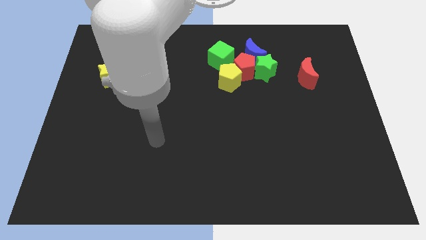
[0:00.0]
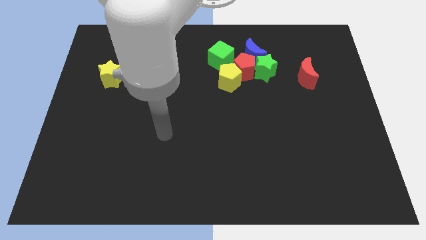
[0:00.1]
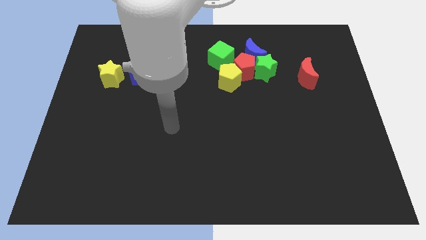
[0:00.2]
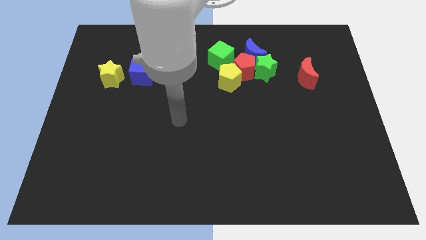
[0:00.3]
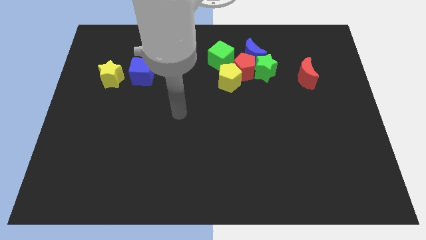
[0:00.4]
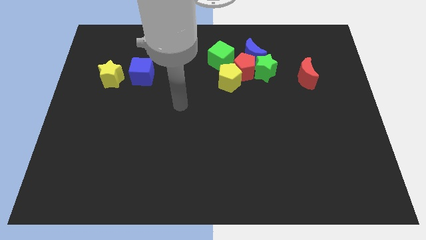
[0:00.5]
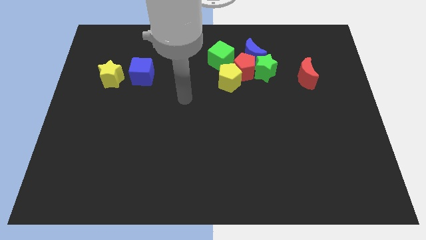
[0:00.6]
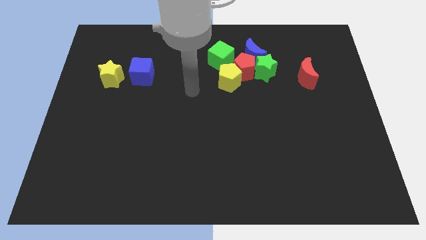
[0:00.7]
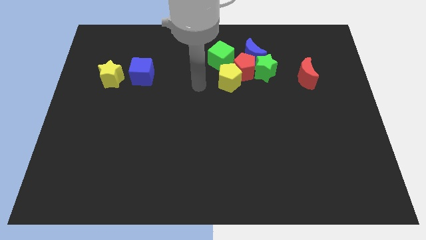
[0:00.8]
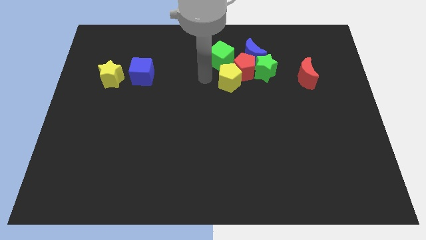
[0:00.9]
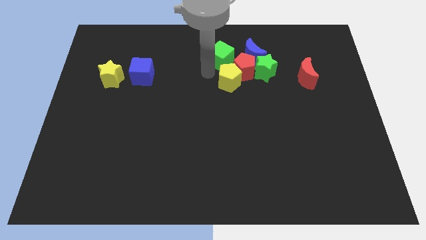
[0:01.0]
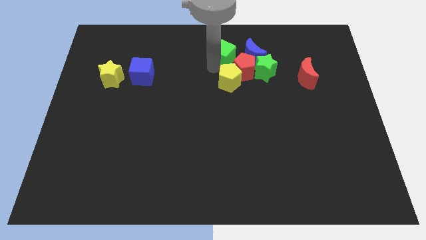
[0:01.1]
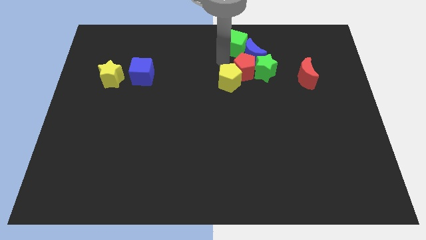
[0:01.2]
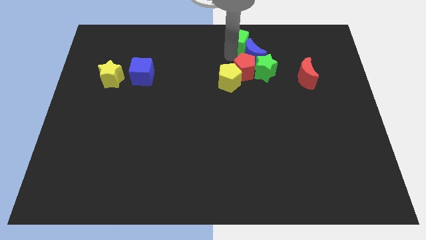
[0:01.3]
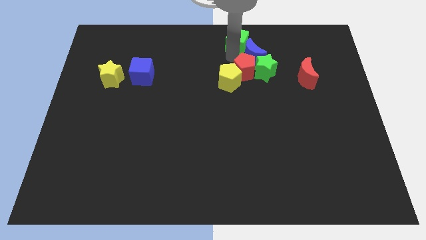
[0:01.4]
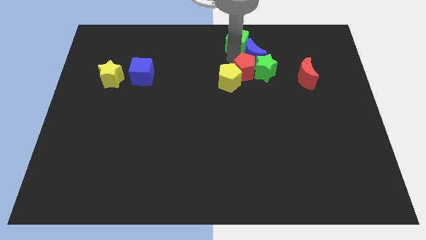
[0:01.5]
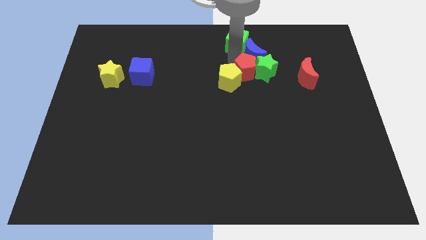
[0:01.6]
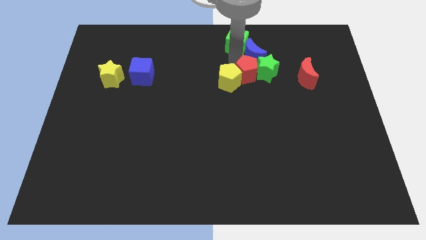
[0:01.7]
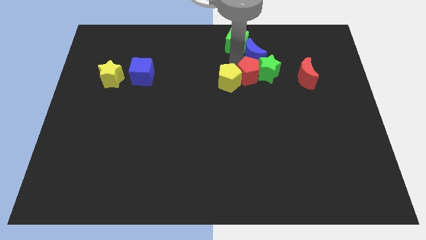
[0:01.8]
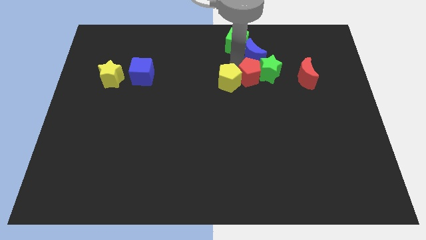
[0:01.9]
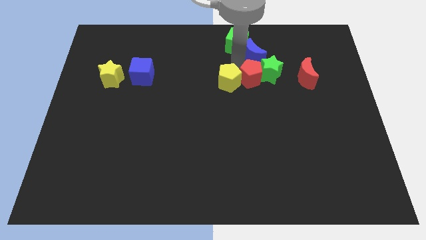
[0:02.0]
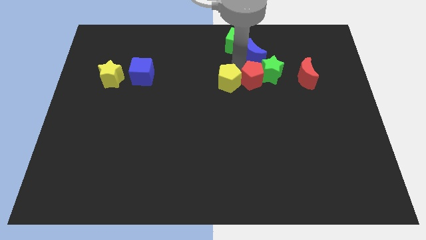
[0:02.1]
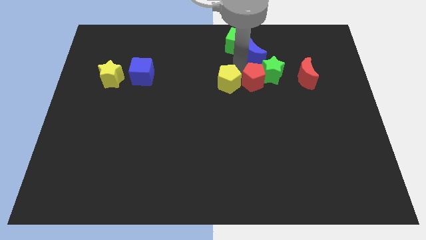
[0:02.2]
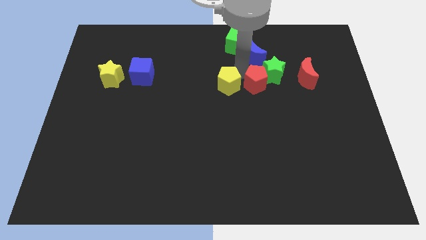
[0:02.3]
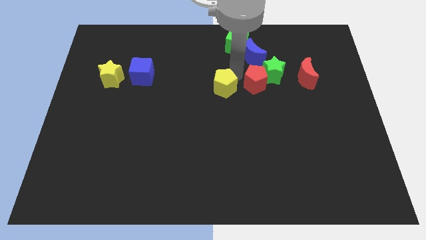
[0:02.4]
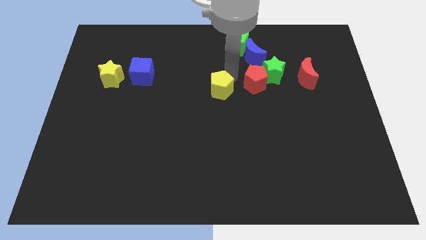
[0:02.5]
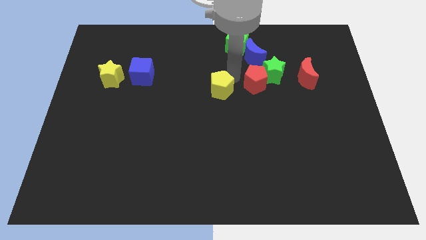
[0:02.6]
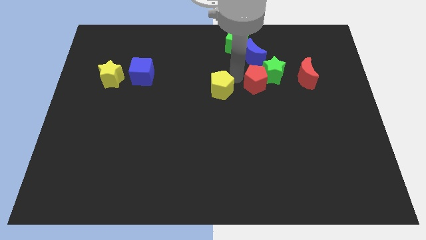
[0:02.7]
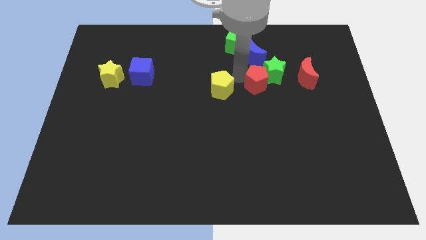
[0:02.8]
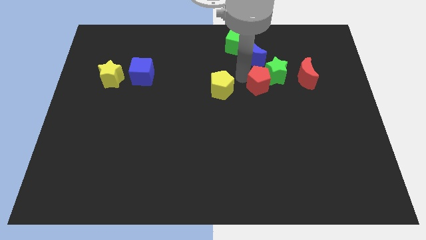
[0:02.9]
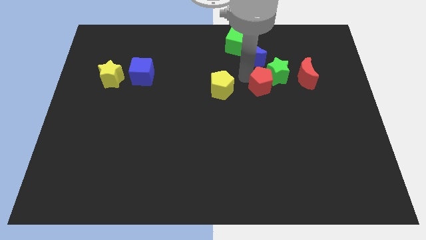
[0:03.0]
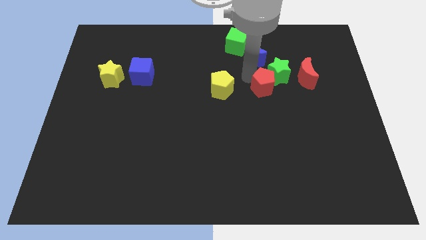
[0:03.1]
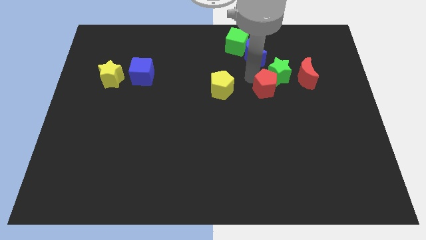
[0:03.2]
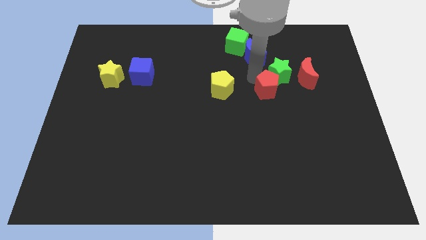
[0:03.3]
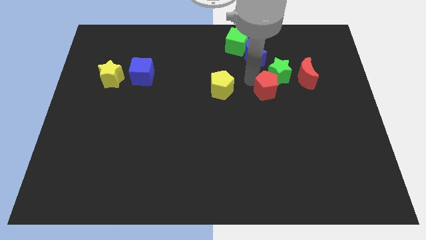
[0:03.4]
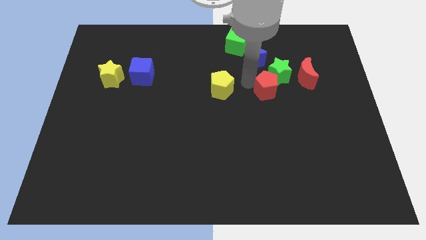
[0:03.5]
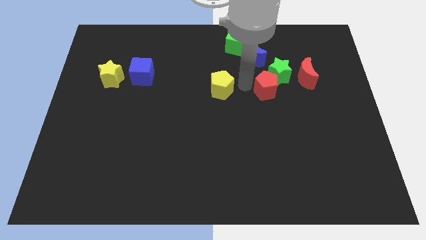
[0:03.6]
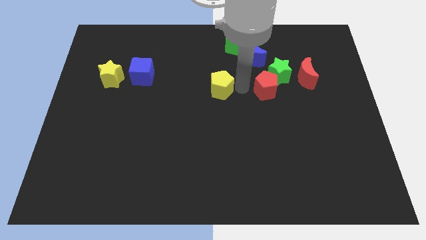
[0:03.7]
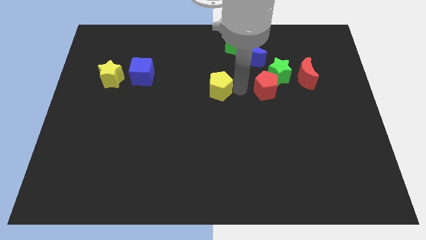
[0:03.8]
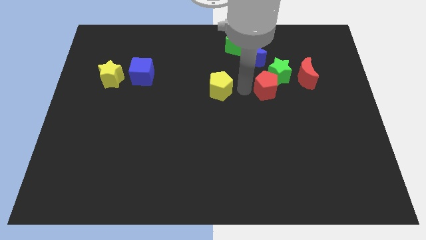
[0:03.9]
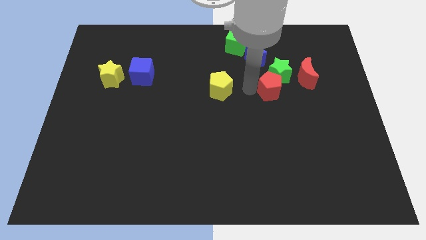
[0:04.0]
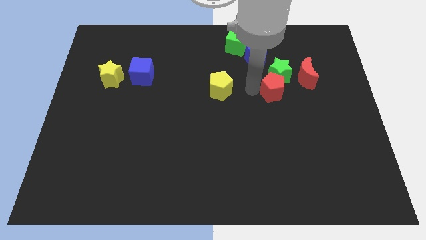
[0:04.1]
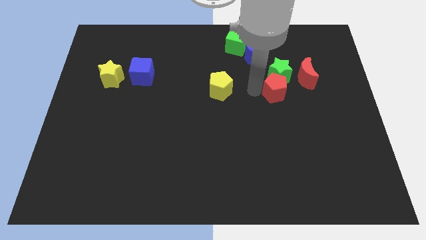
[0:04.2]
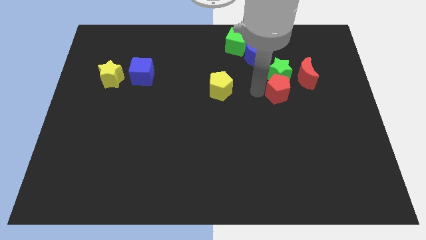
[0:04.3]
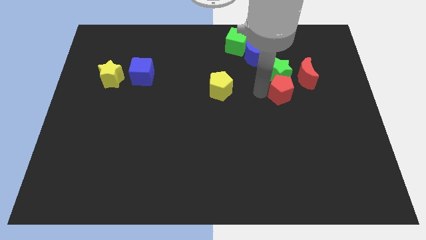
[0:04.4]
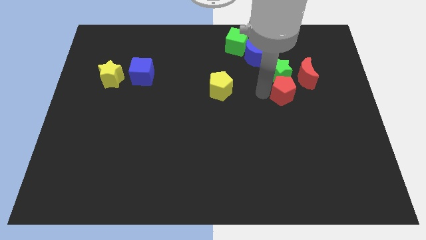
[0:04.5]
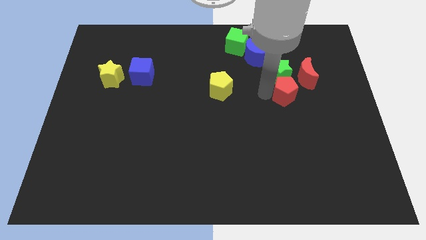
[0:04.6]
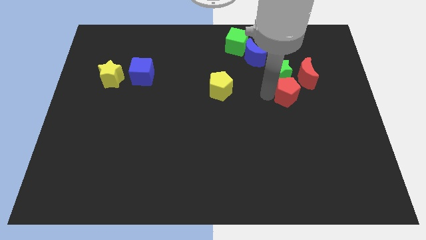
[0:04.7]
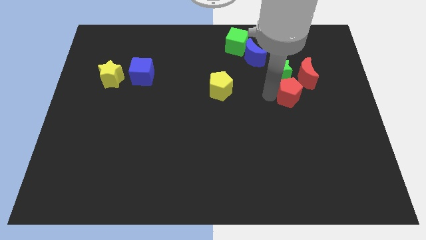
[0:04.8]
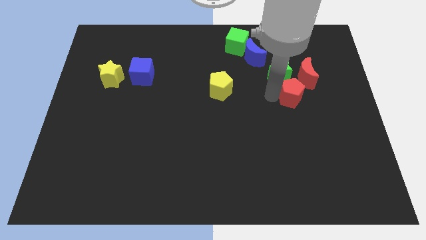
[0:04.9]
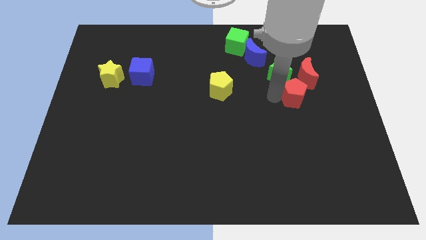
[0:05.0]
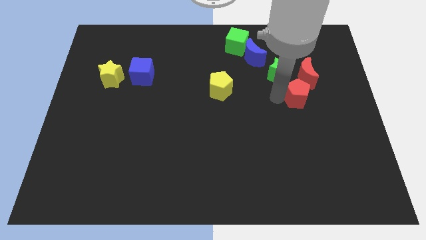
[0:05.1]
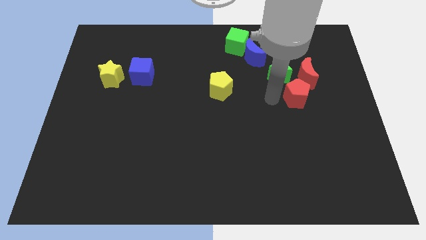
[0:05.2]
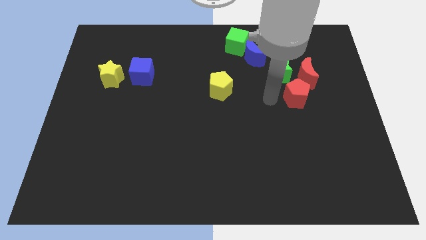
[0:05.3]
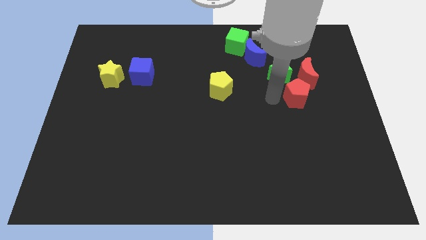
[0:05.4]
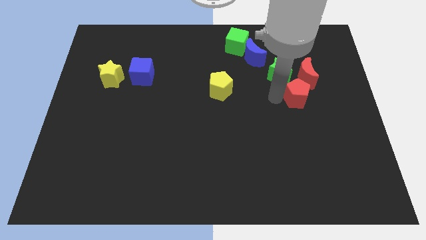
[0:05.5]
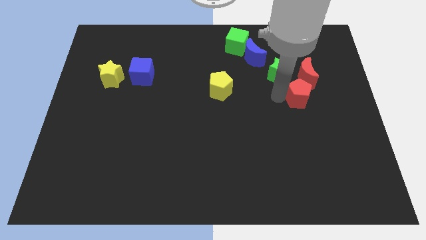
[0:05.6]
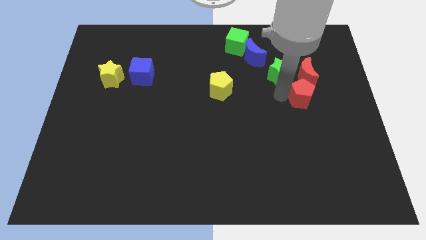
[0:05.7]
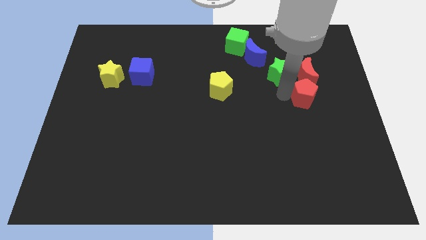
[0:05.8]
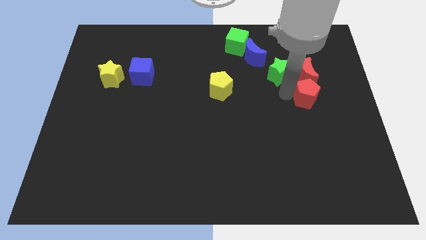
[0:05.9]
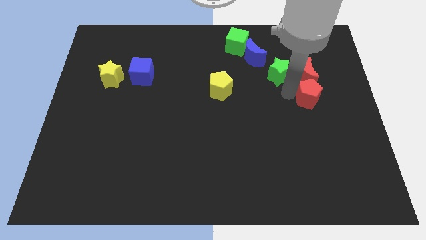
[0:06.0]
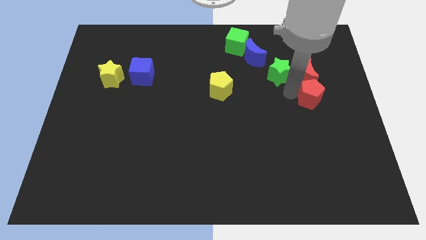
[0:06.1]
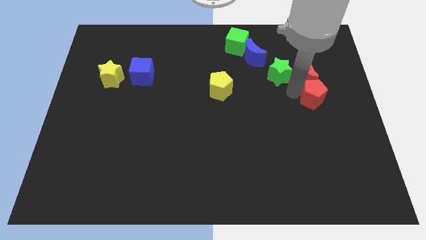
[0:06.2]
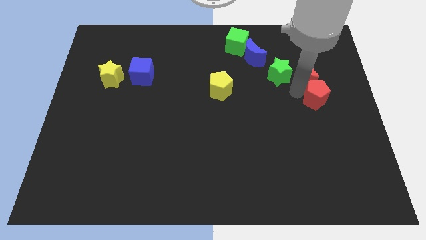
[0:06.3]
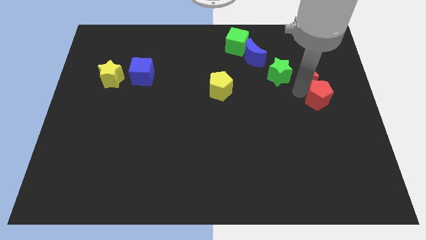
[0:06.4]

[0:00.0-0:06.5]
push the red pentagon to the right side of the board

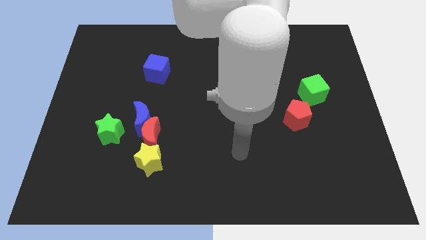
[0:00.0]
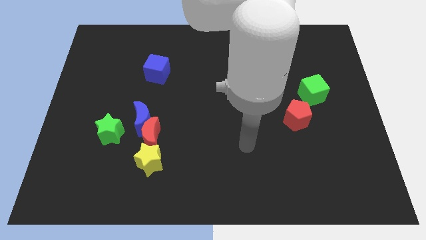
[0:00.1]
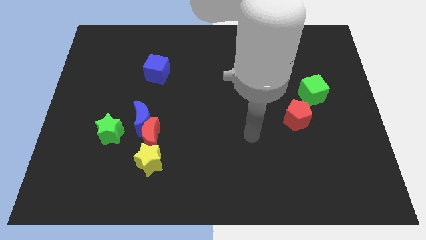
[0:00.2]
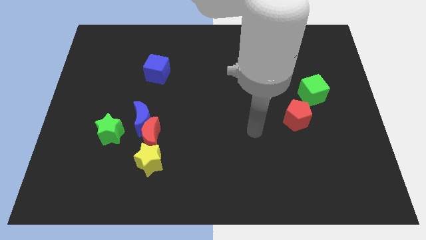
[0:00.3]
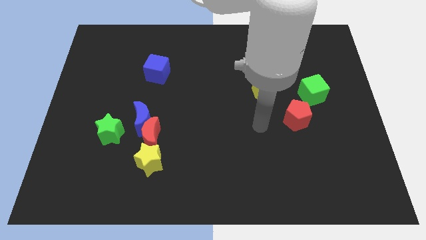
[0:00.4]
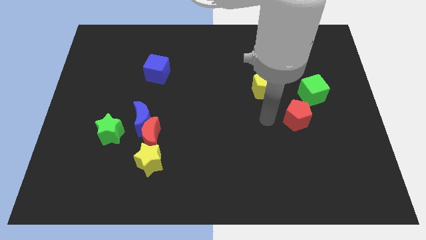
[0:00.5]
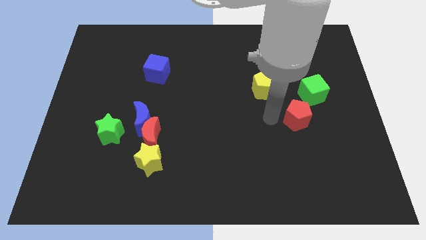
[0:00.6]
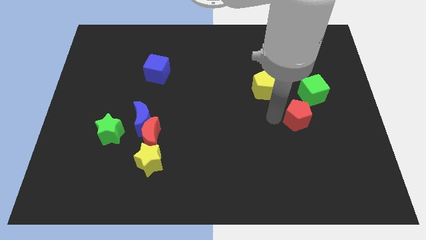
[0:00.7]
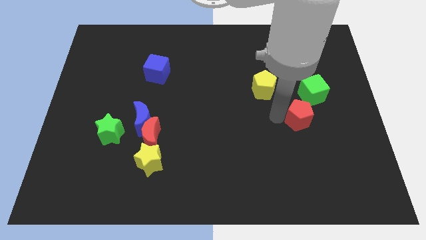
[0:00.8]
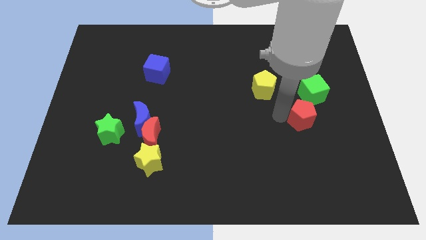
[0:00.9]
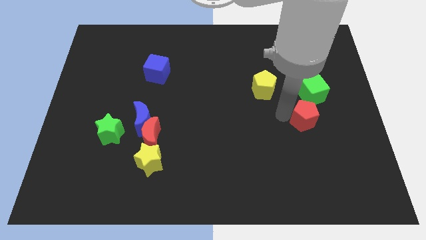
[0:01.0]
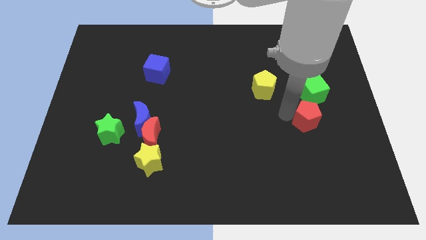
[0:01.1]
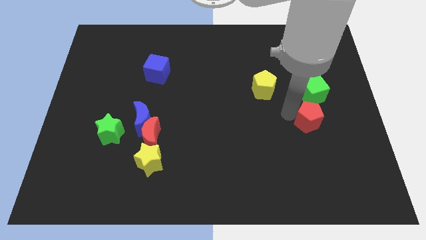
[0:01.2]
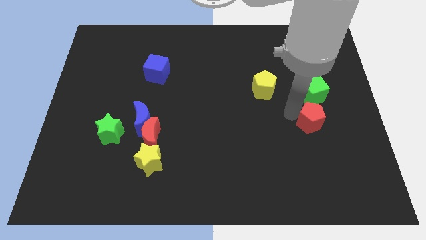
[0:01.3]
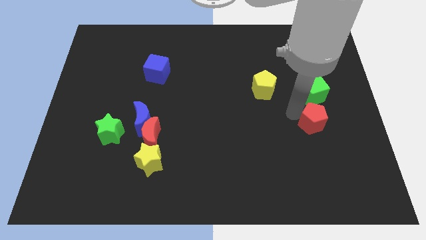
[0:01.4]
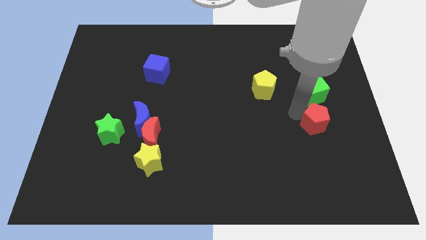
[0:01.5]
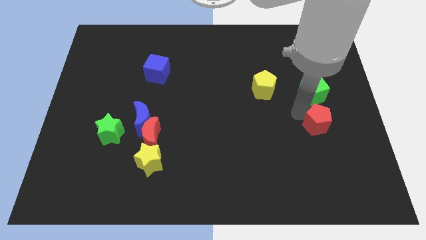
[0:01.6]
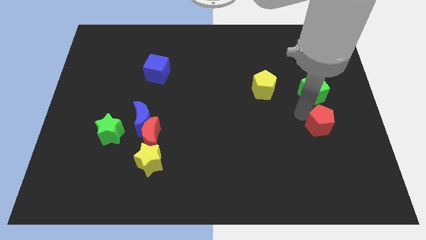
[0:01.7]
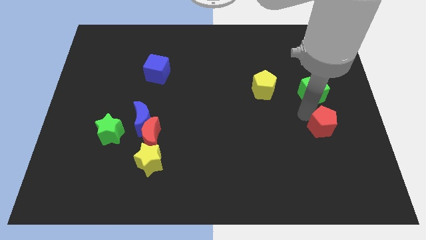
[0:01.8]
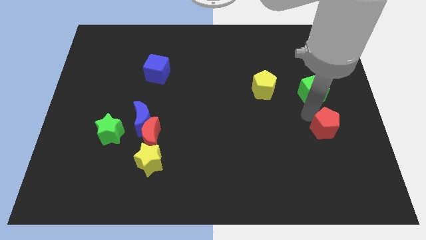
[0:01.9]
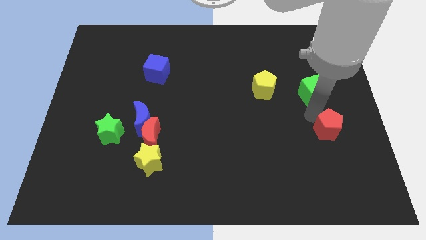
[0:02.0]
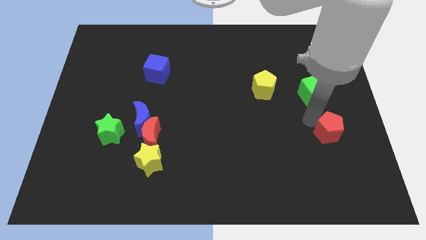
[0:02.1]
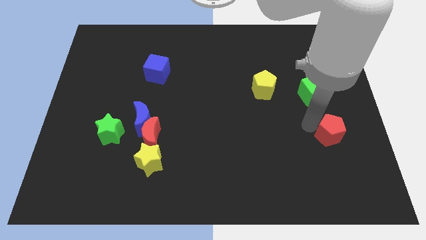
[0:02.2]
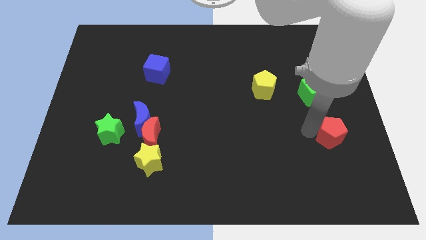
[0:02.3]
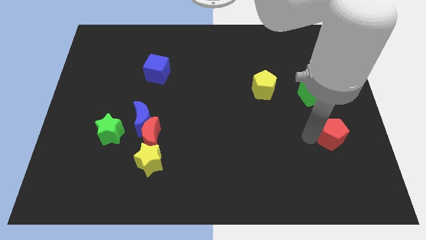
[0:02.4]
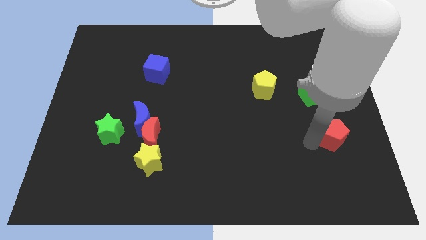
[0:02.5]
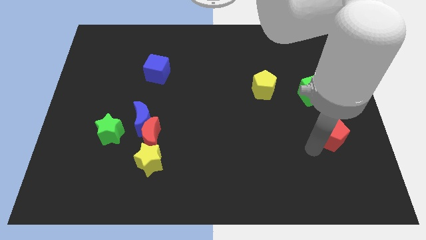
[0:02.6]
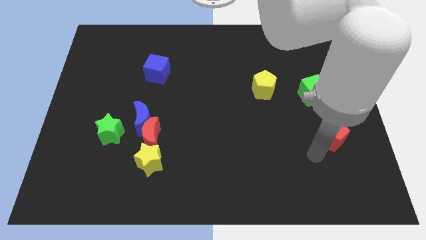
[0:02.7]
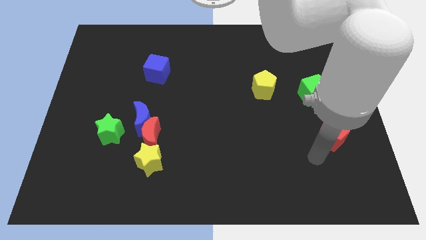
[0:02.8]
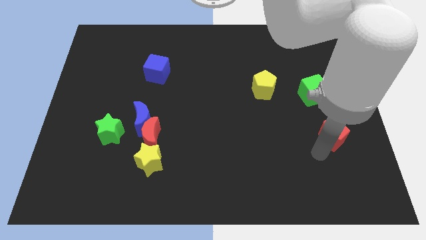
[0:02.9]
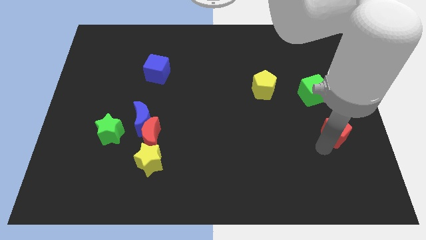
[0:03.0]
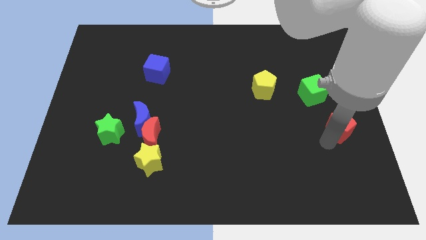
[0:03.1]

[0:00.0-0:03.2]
slide the red pentagon to the right side
